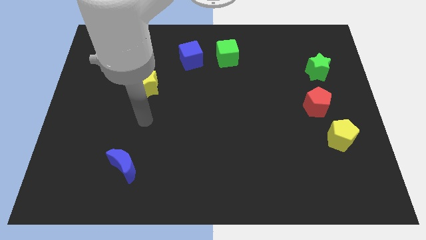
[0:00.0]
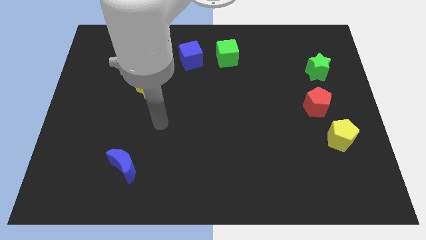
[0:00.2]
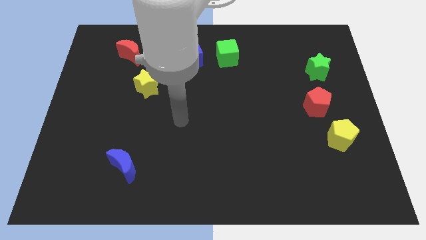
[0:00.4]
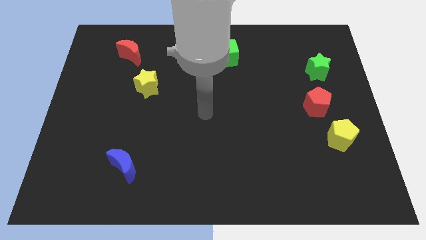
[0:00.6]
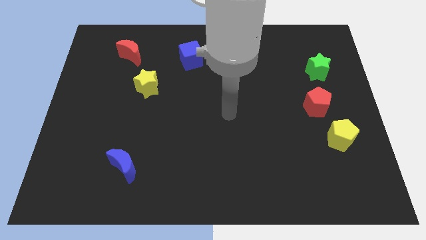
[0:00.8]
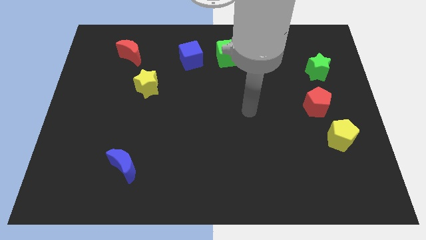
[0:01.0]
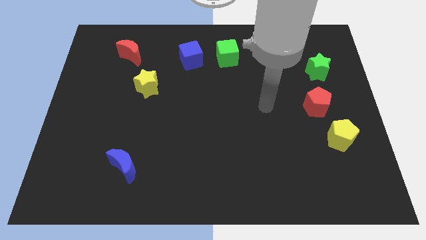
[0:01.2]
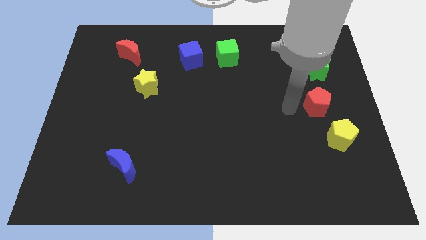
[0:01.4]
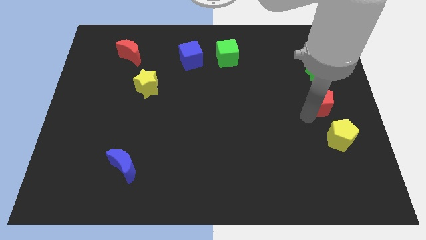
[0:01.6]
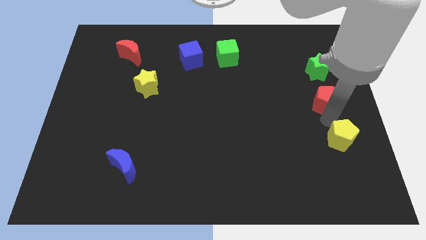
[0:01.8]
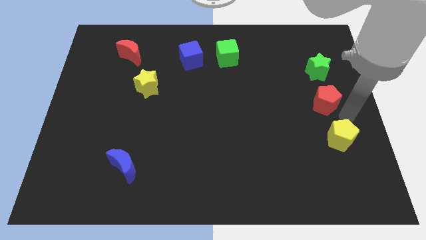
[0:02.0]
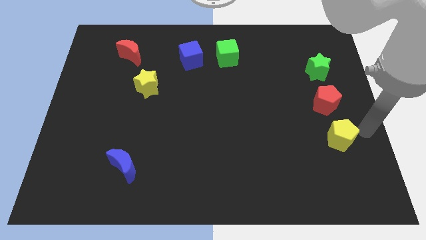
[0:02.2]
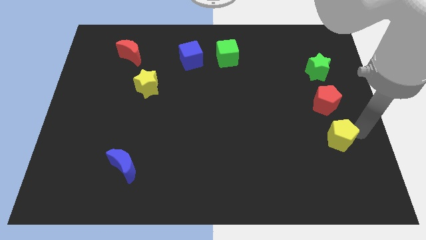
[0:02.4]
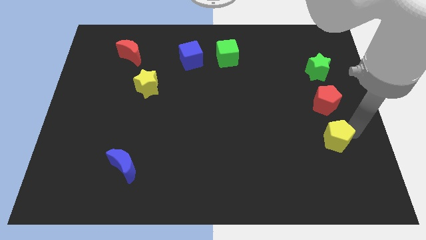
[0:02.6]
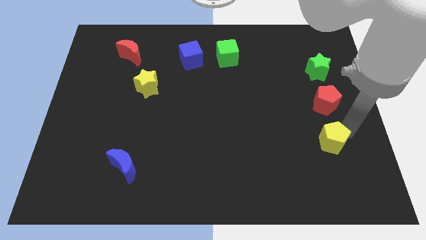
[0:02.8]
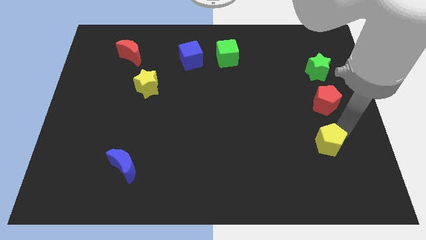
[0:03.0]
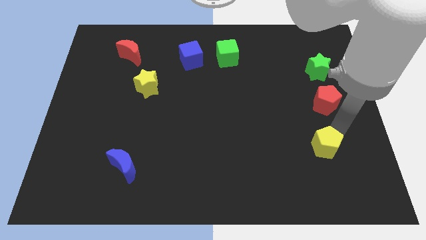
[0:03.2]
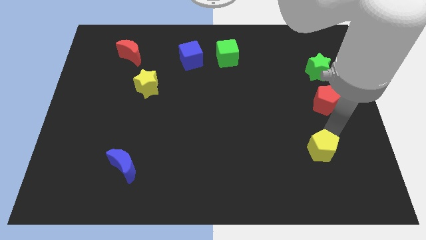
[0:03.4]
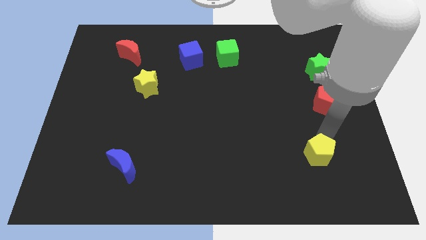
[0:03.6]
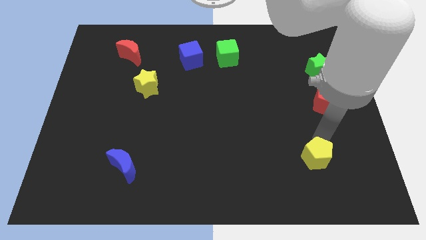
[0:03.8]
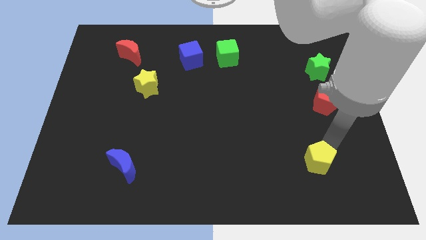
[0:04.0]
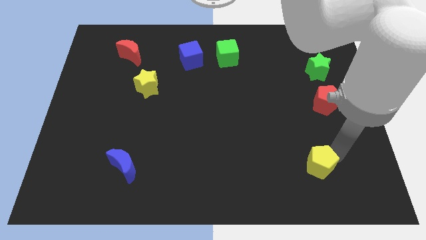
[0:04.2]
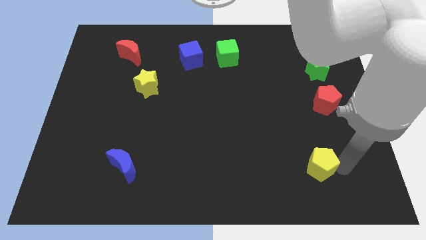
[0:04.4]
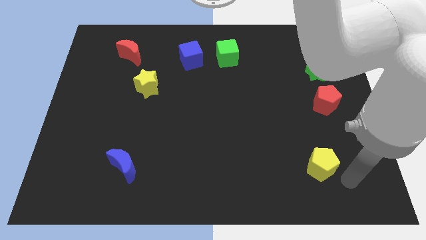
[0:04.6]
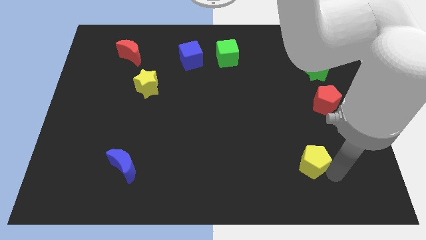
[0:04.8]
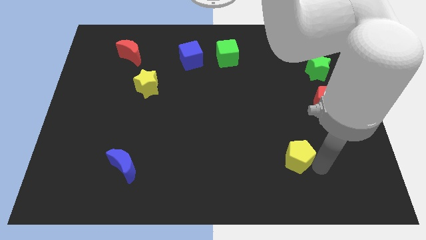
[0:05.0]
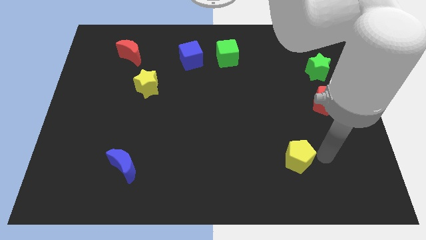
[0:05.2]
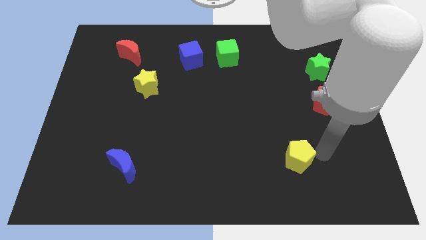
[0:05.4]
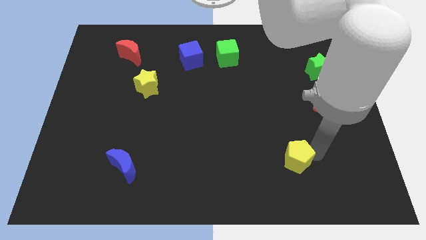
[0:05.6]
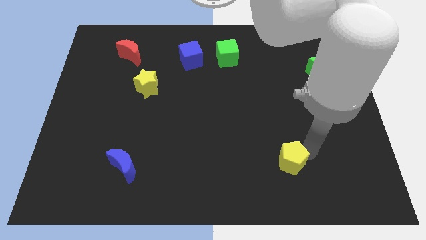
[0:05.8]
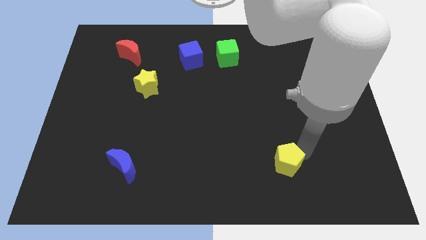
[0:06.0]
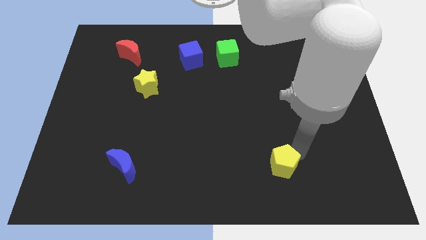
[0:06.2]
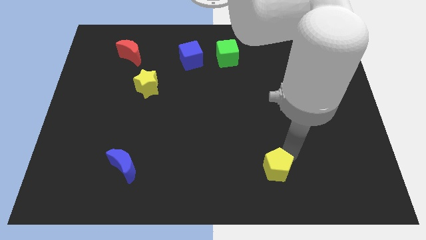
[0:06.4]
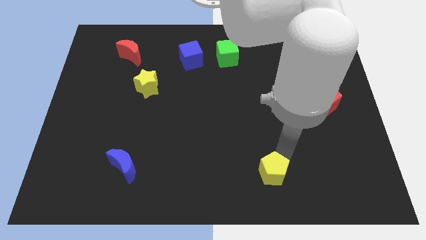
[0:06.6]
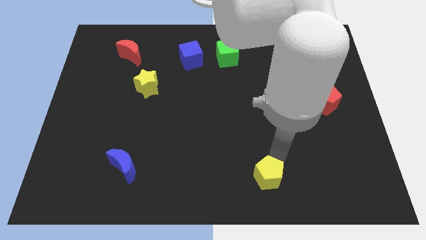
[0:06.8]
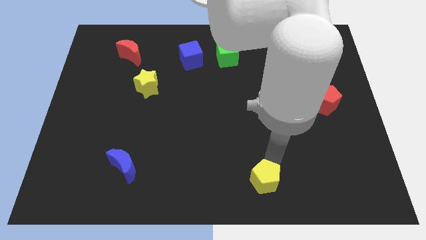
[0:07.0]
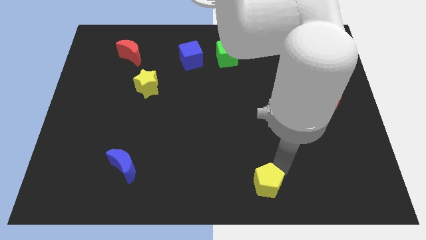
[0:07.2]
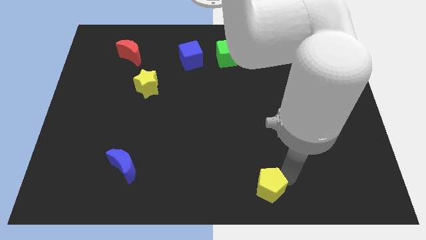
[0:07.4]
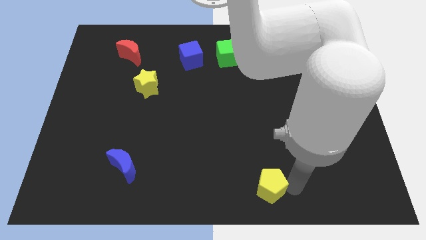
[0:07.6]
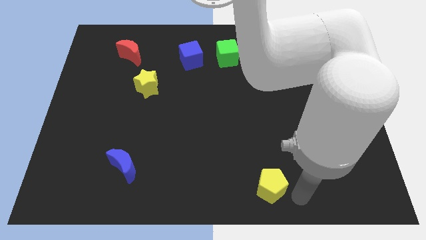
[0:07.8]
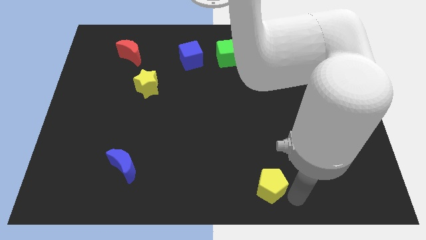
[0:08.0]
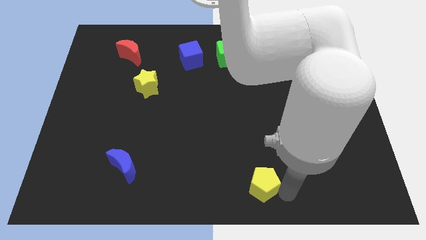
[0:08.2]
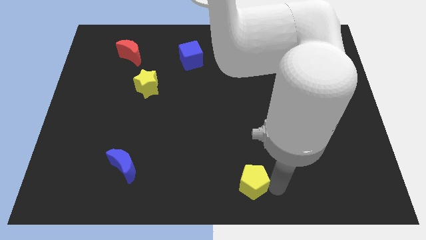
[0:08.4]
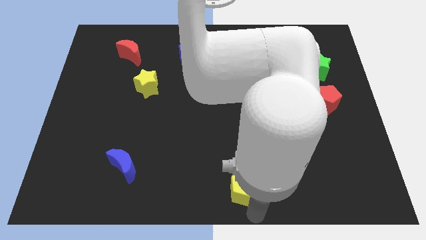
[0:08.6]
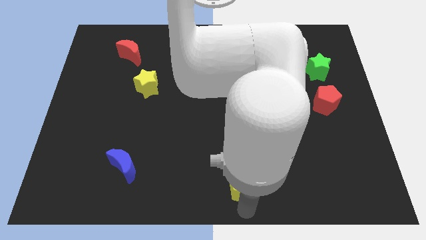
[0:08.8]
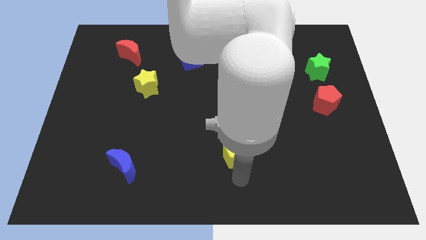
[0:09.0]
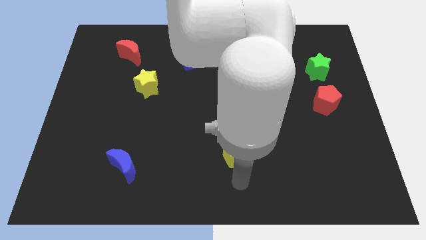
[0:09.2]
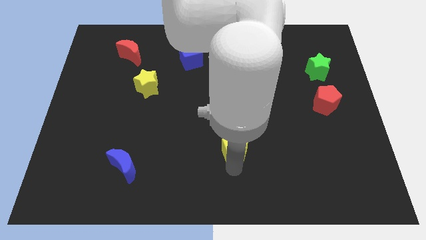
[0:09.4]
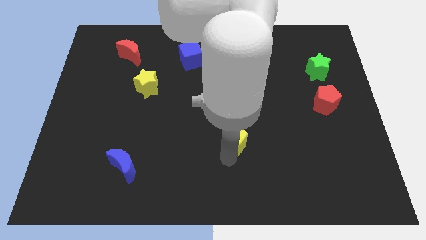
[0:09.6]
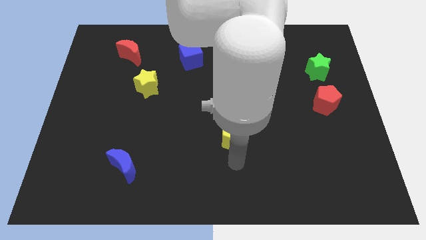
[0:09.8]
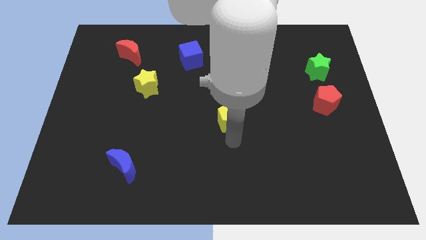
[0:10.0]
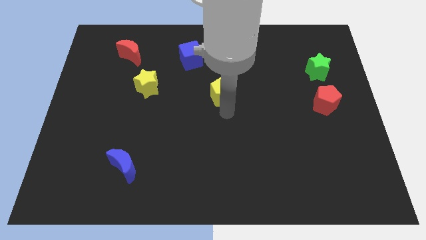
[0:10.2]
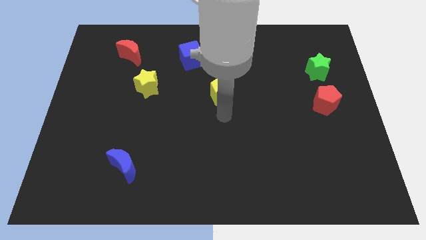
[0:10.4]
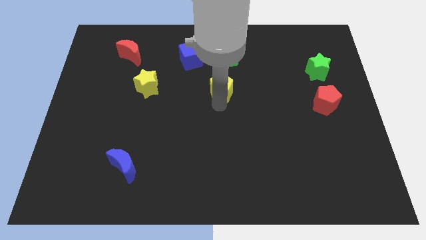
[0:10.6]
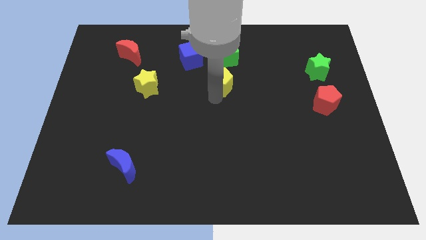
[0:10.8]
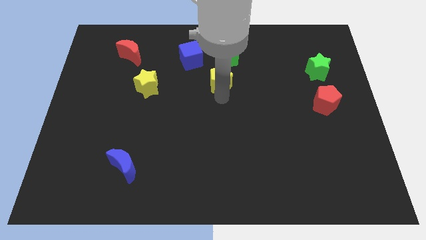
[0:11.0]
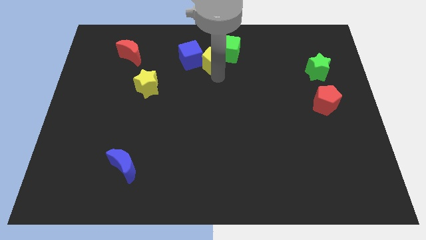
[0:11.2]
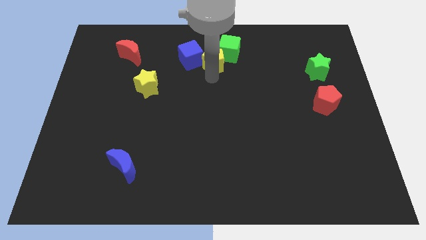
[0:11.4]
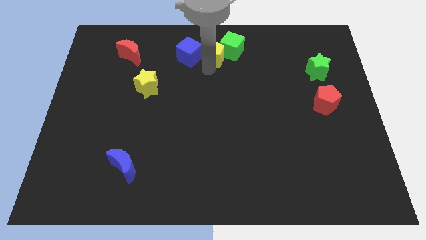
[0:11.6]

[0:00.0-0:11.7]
move the yellow pentagon to the top

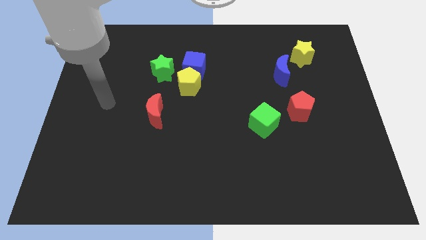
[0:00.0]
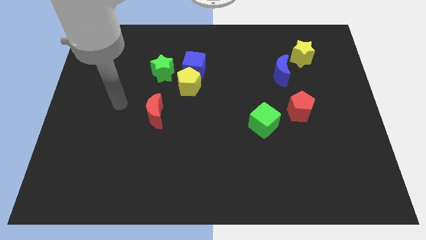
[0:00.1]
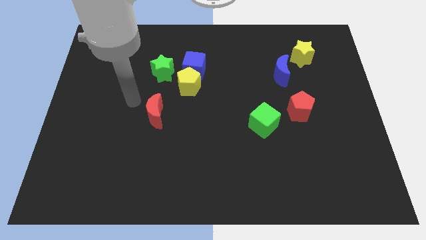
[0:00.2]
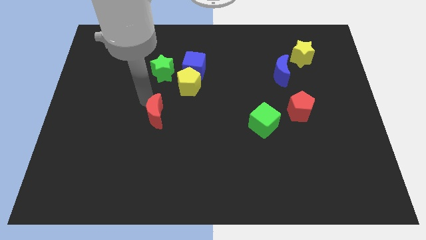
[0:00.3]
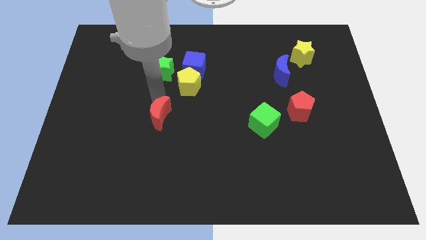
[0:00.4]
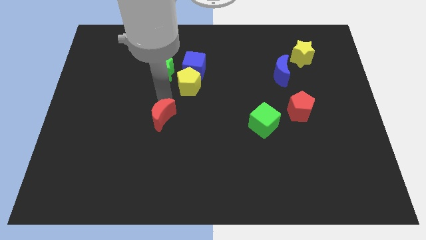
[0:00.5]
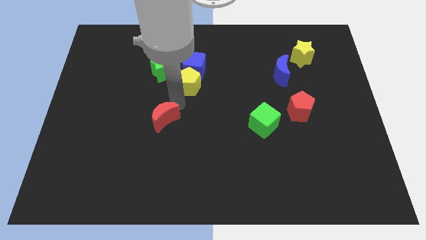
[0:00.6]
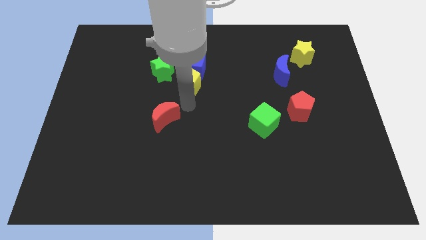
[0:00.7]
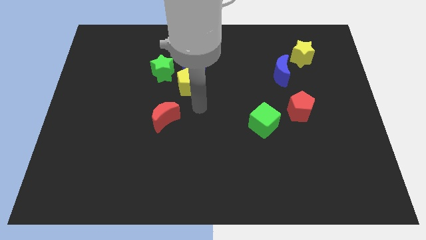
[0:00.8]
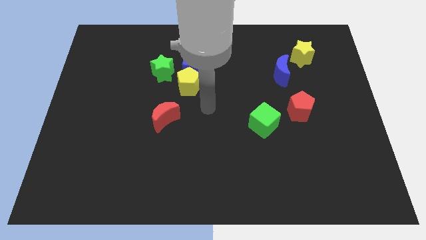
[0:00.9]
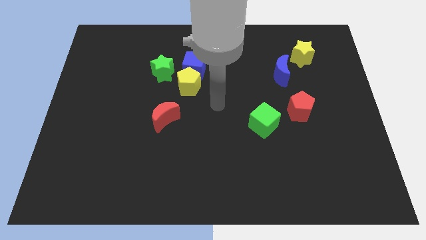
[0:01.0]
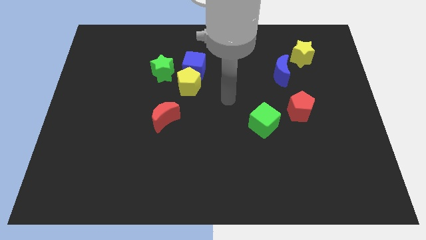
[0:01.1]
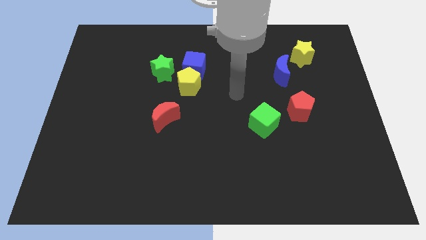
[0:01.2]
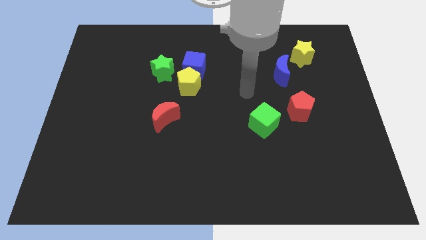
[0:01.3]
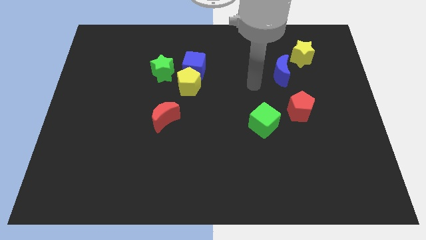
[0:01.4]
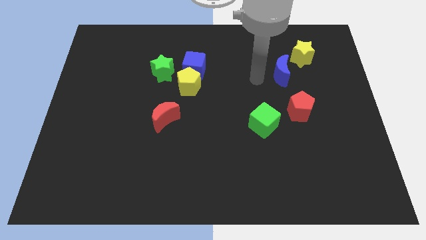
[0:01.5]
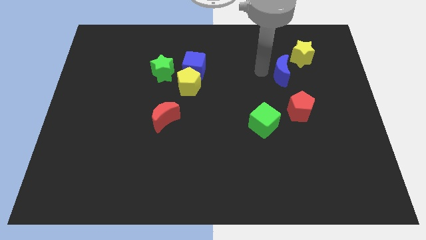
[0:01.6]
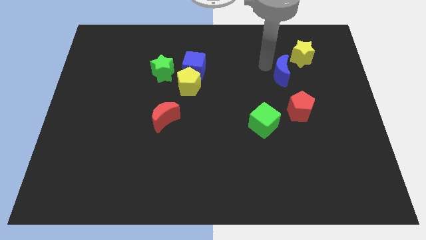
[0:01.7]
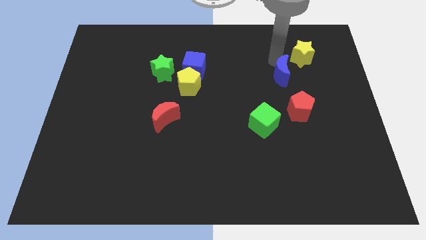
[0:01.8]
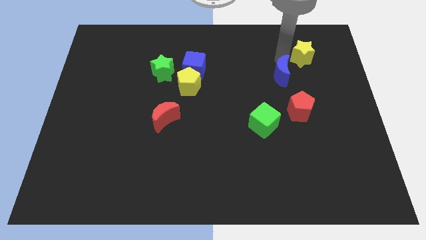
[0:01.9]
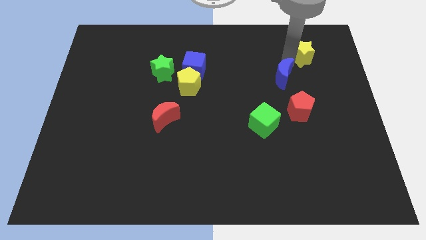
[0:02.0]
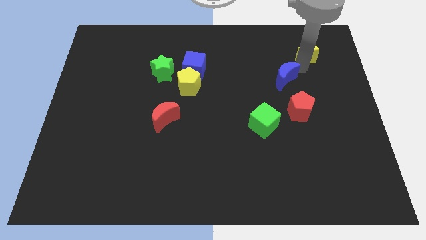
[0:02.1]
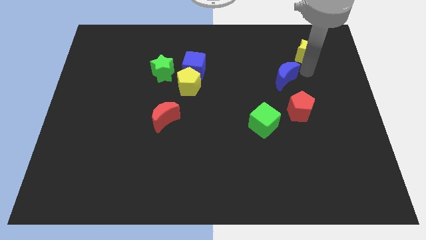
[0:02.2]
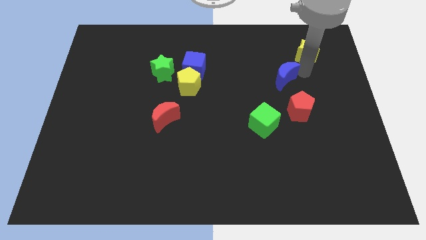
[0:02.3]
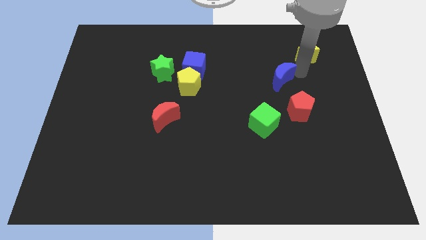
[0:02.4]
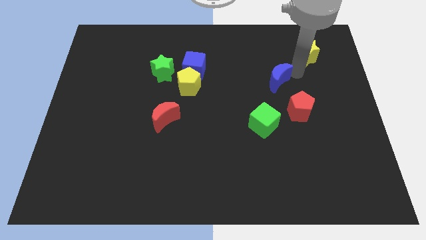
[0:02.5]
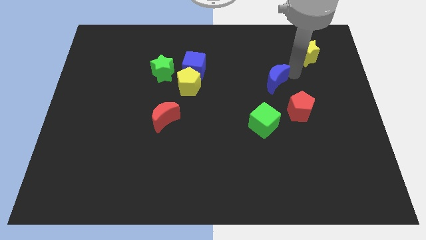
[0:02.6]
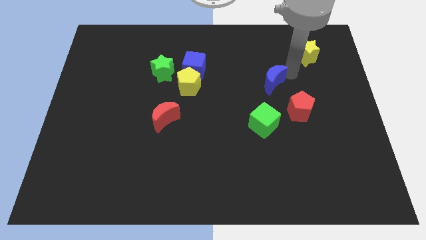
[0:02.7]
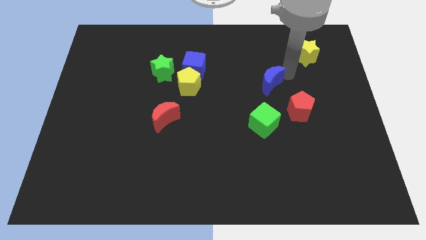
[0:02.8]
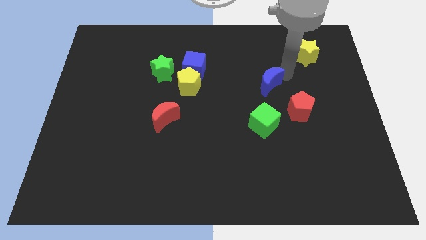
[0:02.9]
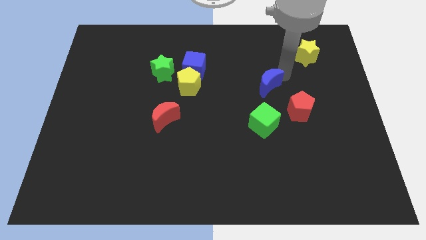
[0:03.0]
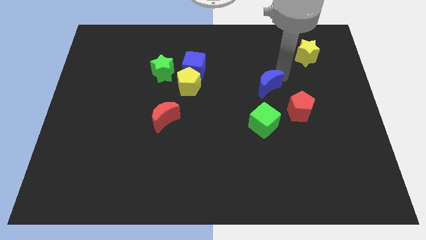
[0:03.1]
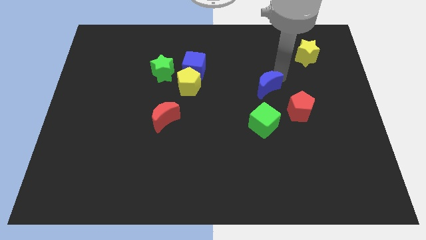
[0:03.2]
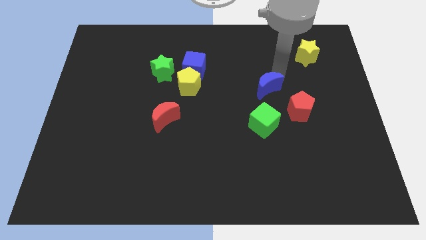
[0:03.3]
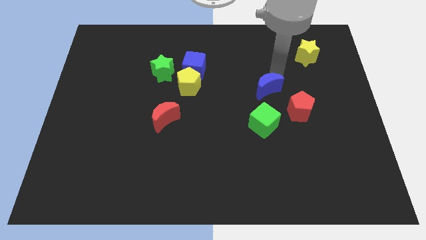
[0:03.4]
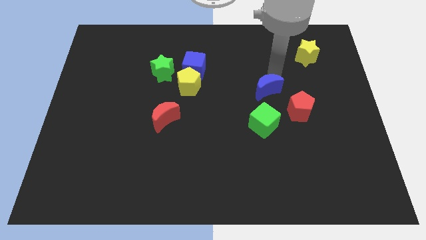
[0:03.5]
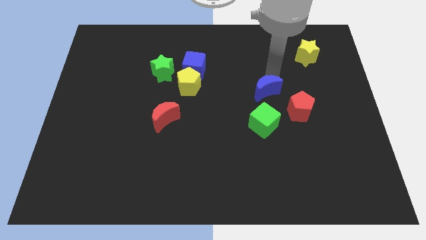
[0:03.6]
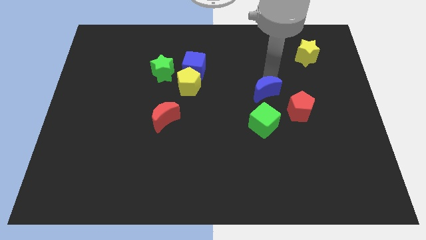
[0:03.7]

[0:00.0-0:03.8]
put the blue moon to the middle
